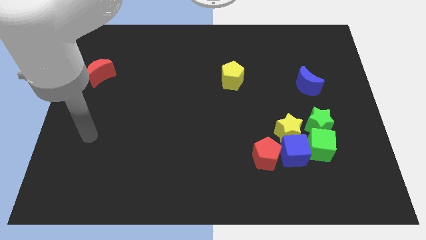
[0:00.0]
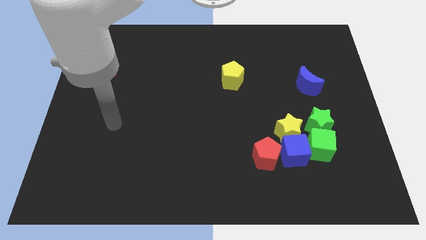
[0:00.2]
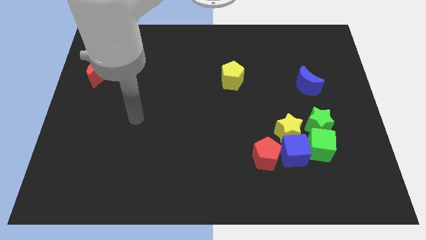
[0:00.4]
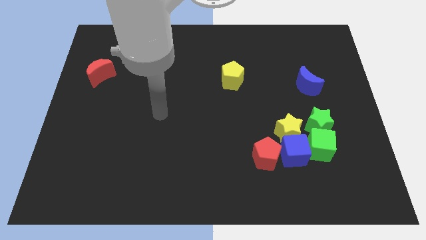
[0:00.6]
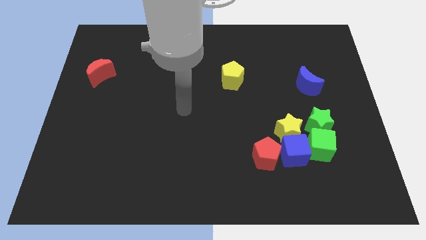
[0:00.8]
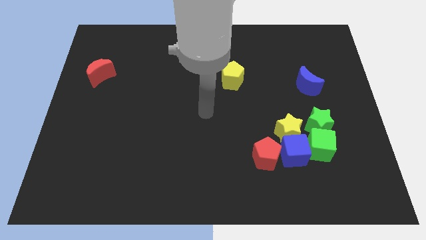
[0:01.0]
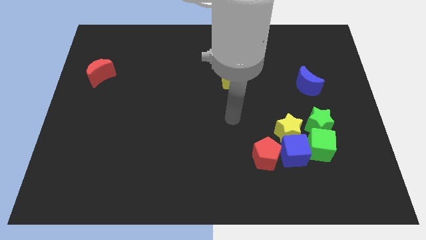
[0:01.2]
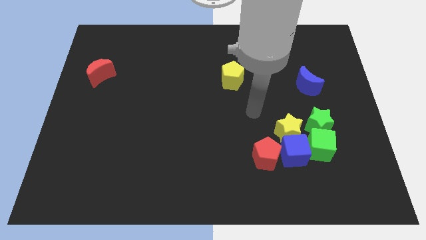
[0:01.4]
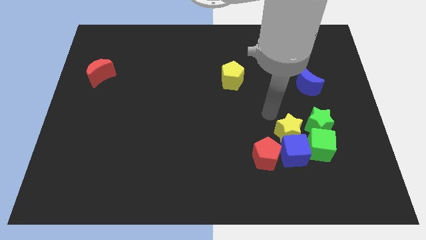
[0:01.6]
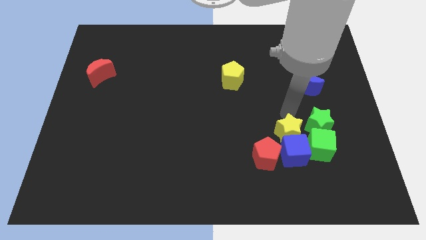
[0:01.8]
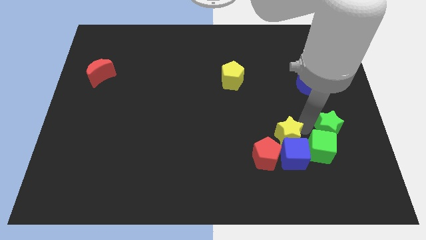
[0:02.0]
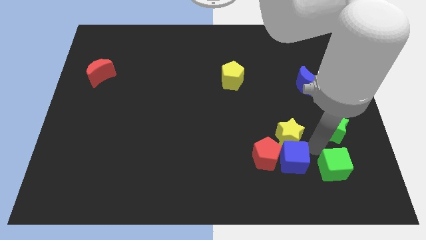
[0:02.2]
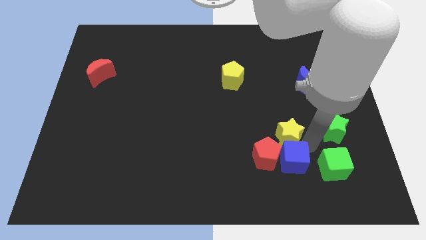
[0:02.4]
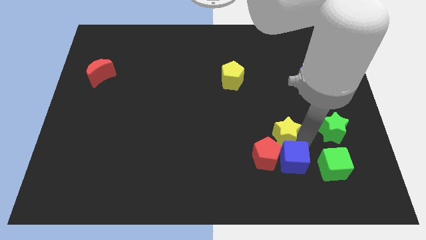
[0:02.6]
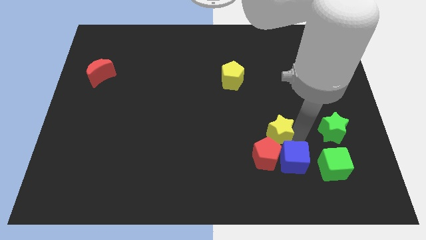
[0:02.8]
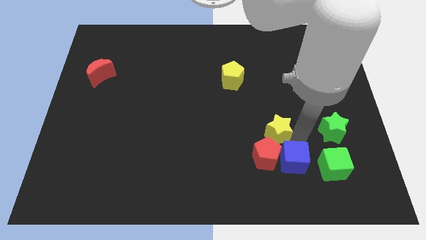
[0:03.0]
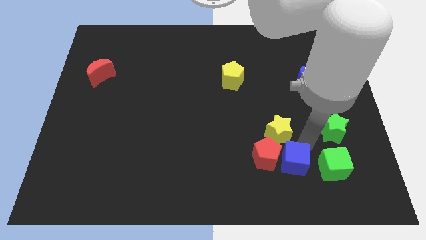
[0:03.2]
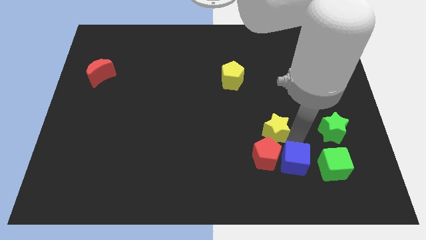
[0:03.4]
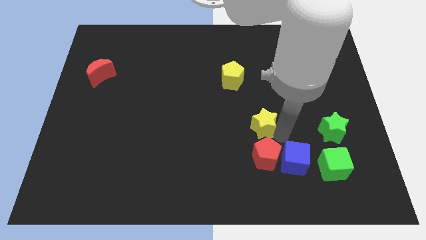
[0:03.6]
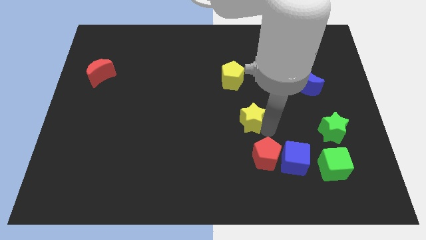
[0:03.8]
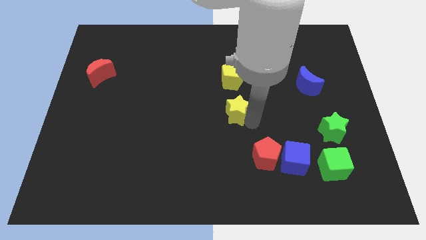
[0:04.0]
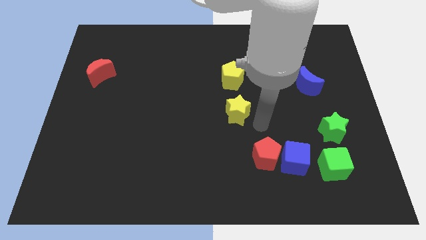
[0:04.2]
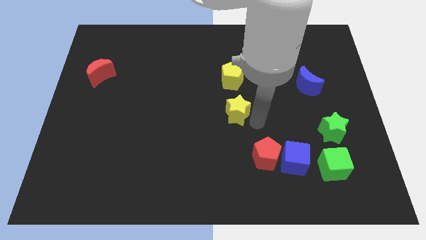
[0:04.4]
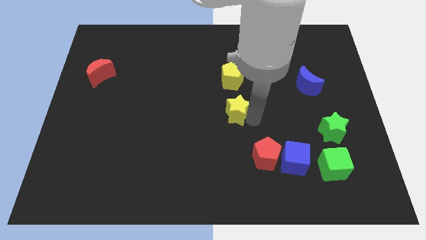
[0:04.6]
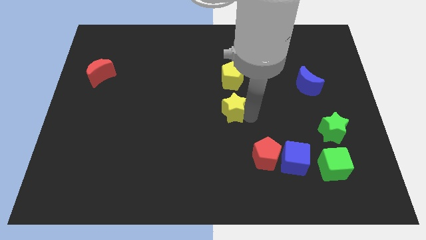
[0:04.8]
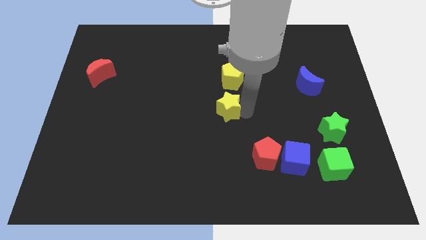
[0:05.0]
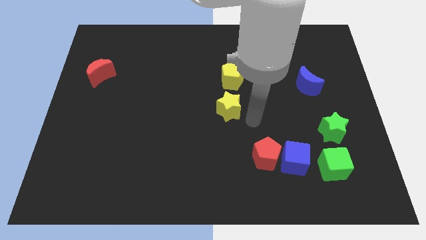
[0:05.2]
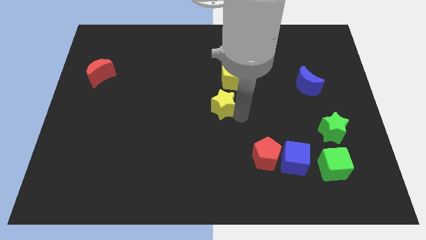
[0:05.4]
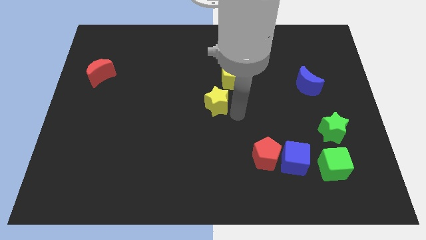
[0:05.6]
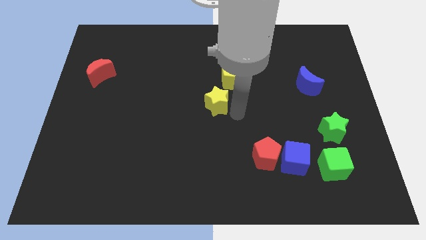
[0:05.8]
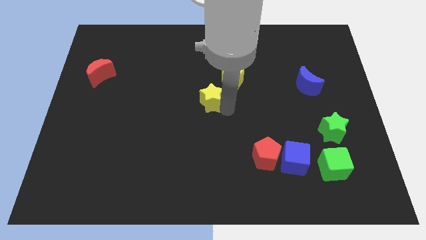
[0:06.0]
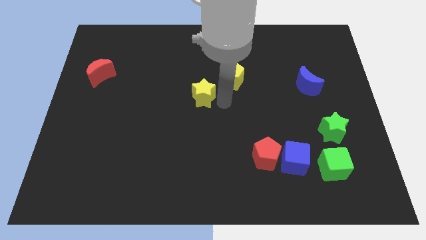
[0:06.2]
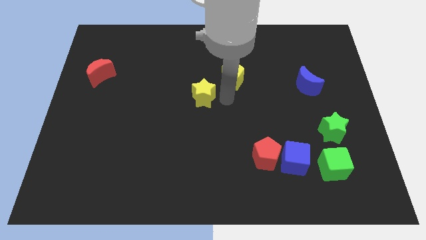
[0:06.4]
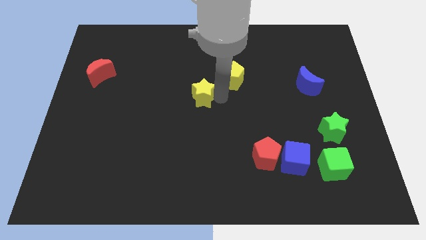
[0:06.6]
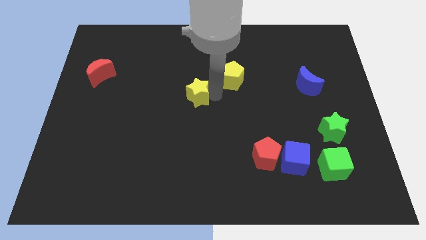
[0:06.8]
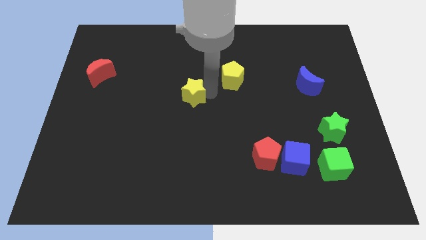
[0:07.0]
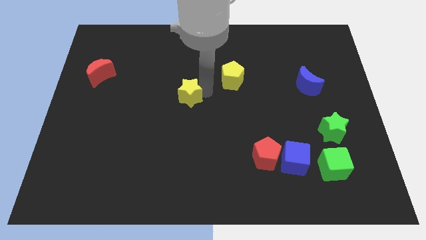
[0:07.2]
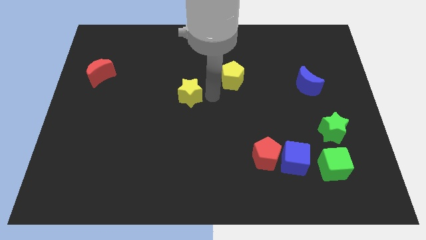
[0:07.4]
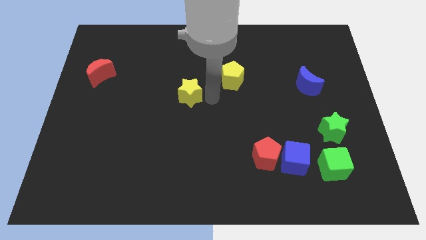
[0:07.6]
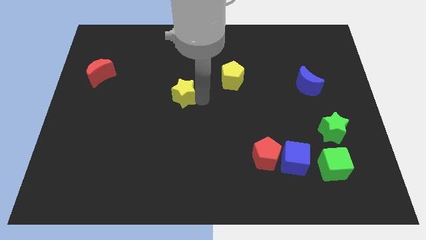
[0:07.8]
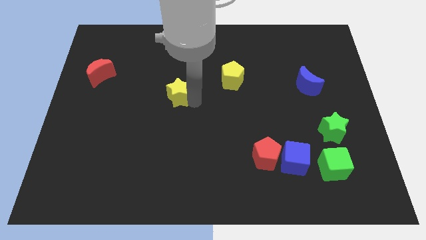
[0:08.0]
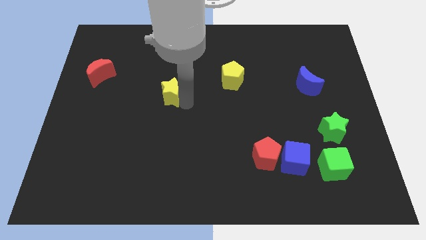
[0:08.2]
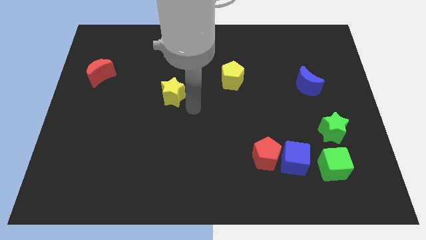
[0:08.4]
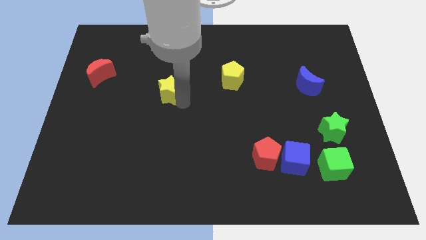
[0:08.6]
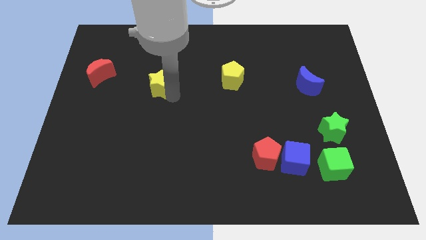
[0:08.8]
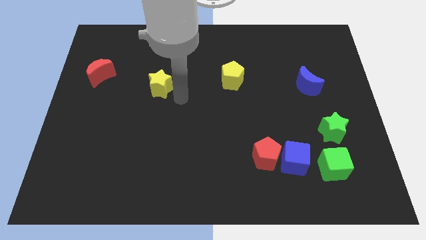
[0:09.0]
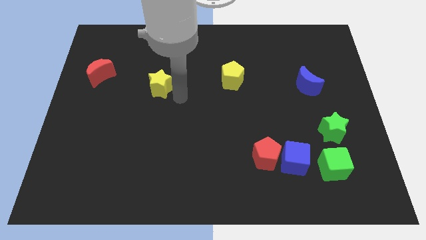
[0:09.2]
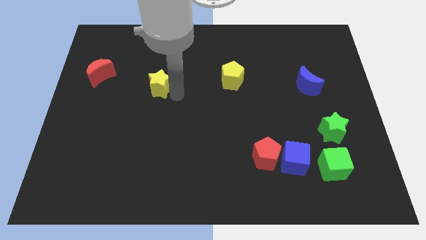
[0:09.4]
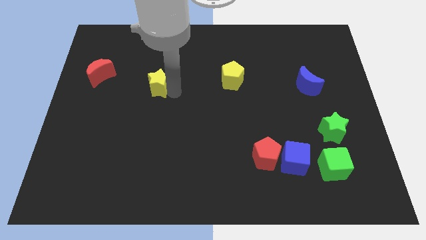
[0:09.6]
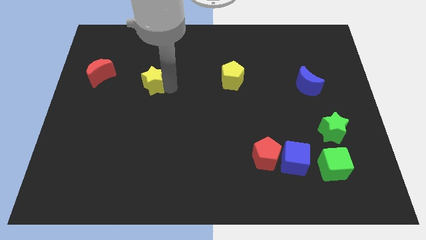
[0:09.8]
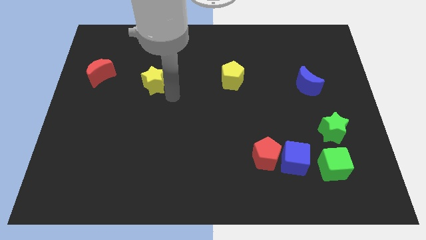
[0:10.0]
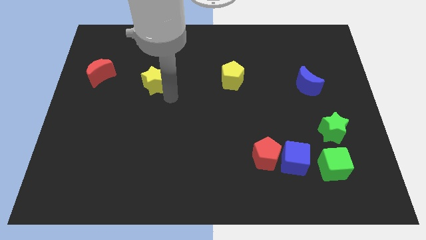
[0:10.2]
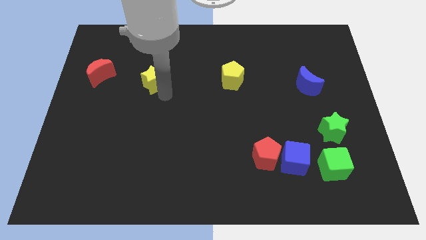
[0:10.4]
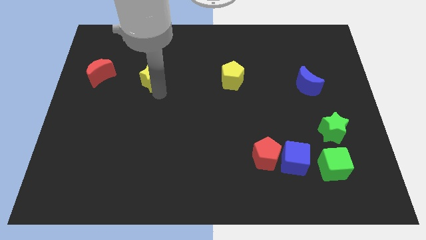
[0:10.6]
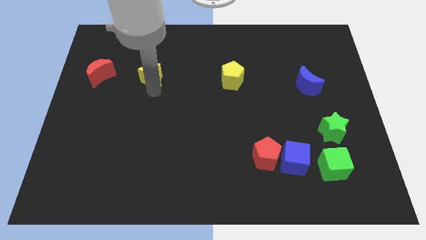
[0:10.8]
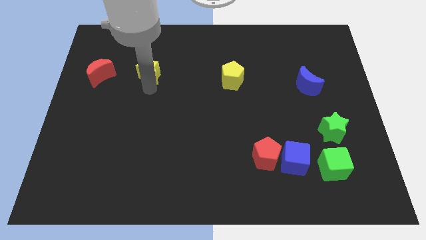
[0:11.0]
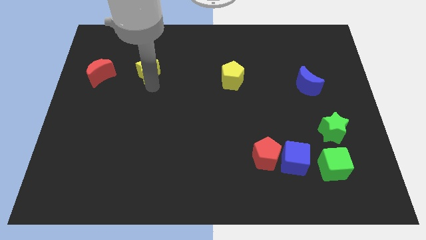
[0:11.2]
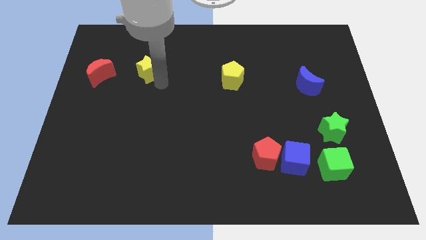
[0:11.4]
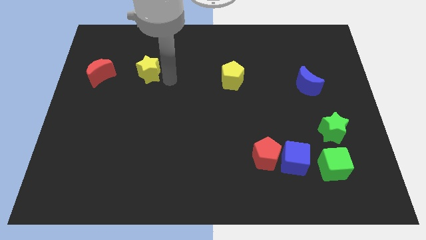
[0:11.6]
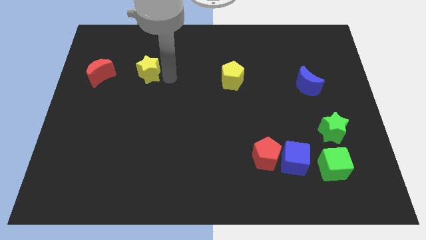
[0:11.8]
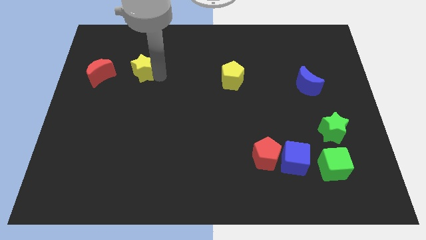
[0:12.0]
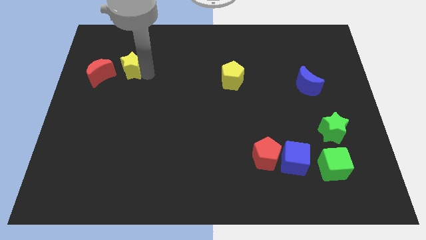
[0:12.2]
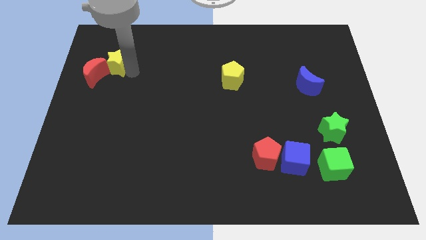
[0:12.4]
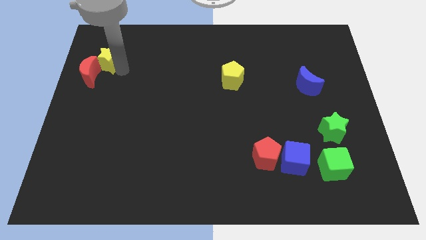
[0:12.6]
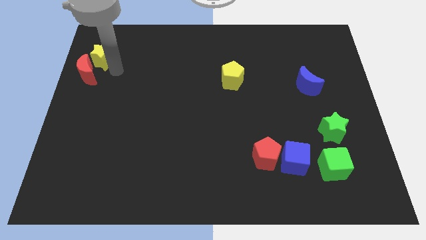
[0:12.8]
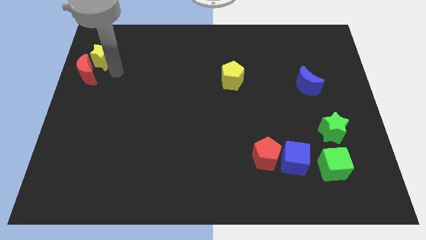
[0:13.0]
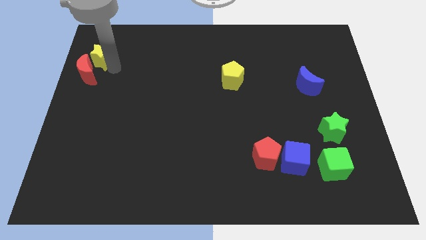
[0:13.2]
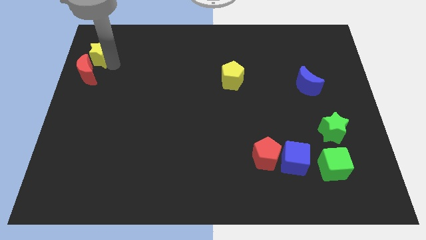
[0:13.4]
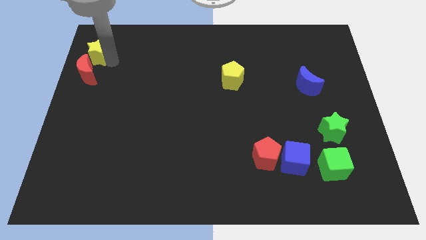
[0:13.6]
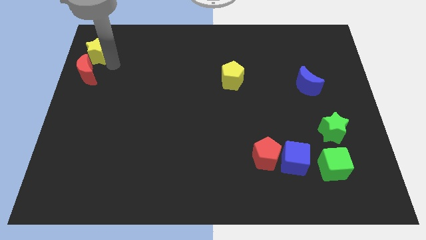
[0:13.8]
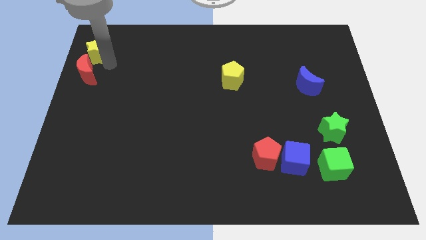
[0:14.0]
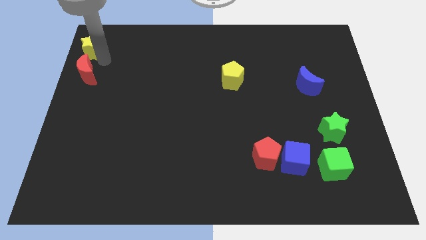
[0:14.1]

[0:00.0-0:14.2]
put the yellow star to the upper left corner
